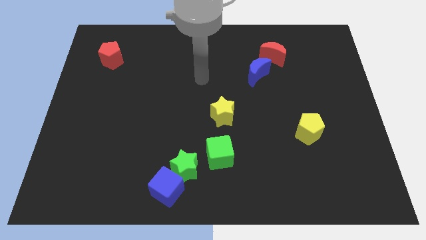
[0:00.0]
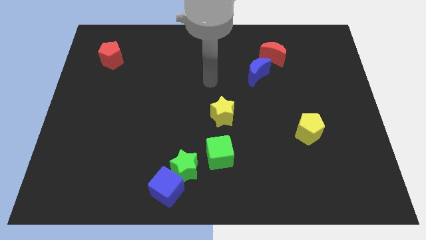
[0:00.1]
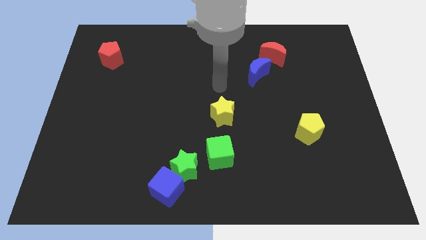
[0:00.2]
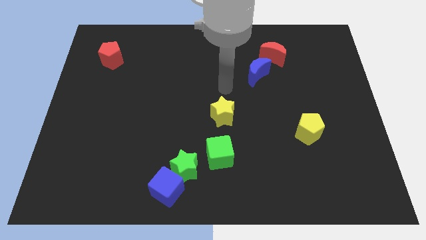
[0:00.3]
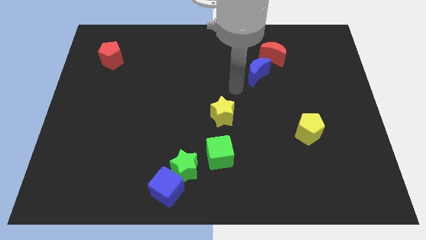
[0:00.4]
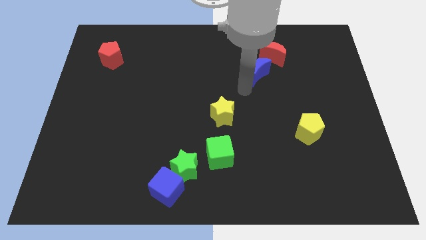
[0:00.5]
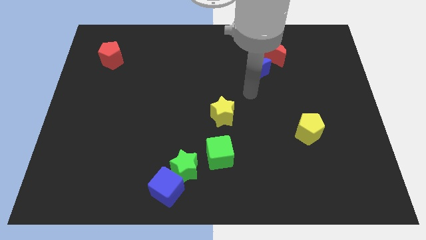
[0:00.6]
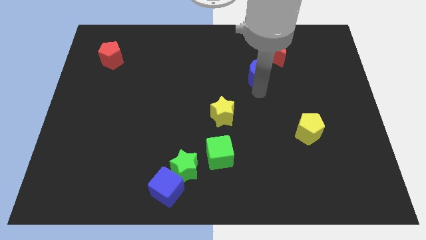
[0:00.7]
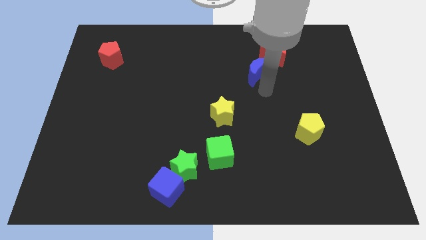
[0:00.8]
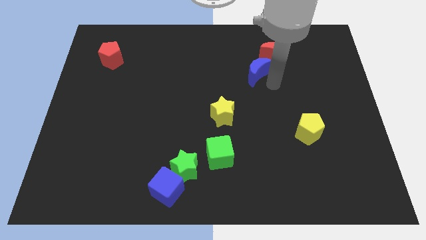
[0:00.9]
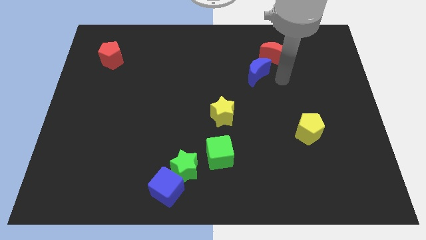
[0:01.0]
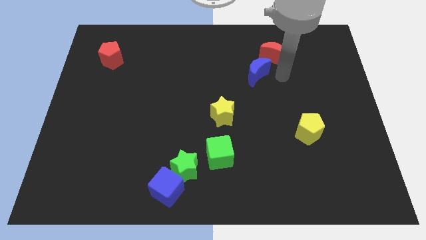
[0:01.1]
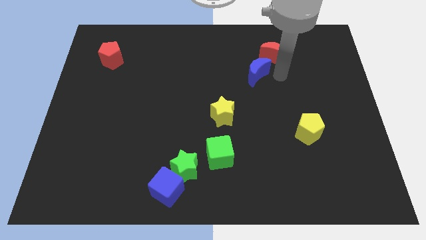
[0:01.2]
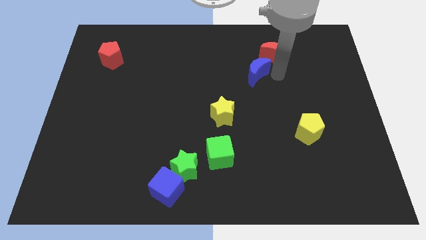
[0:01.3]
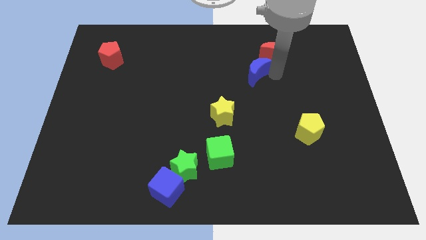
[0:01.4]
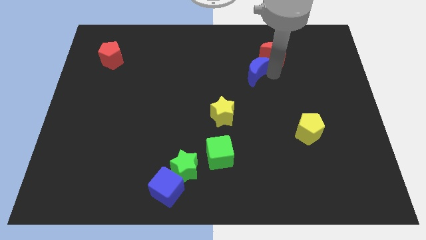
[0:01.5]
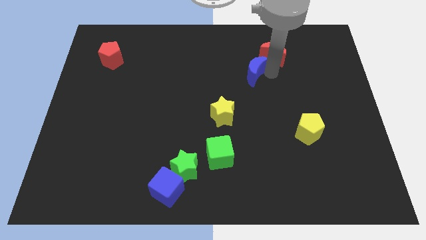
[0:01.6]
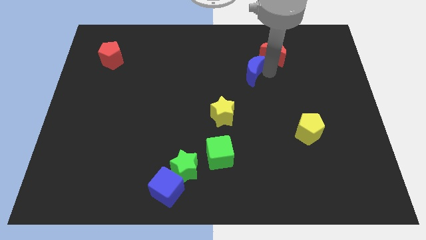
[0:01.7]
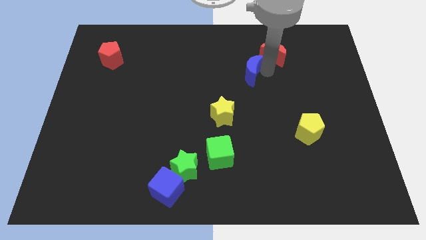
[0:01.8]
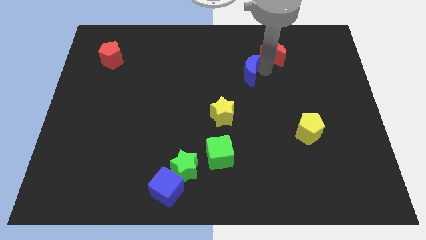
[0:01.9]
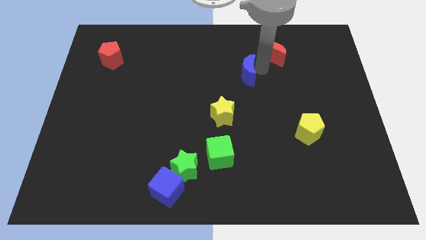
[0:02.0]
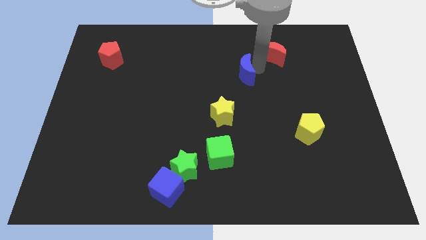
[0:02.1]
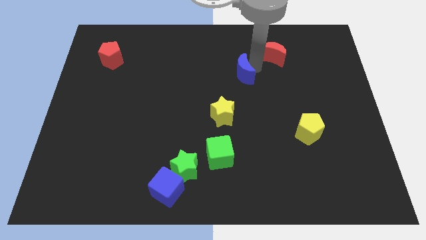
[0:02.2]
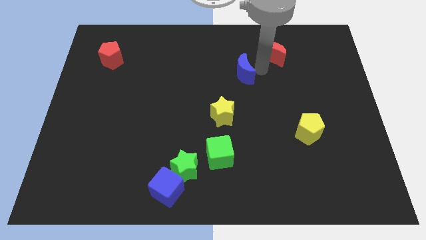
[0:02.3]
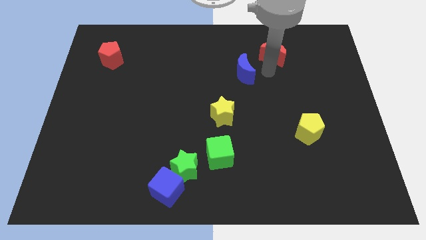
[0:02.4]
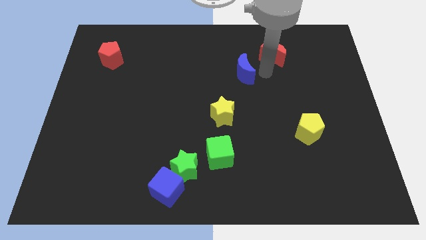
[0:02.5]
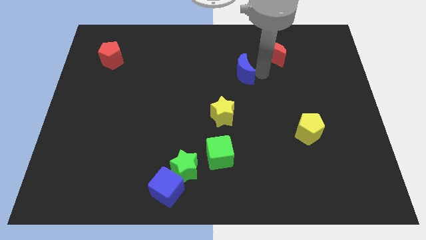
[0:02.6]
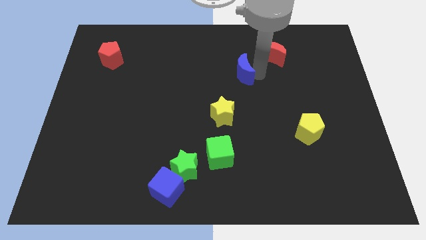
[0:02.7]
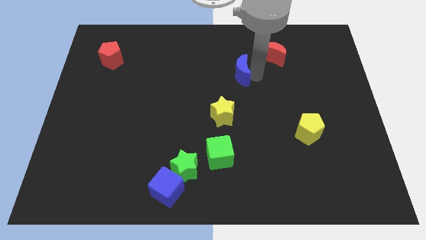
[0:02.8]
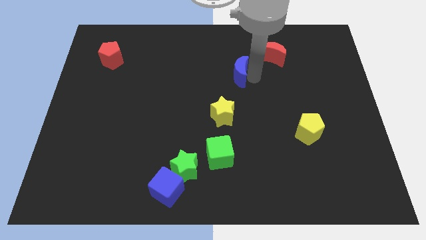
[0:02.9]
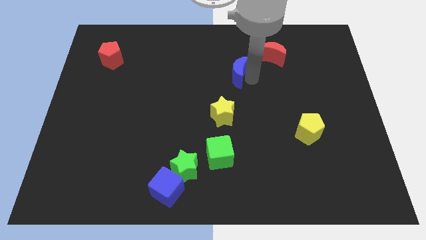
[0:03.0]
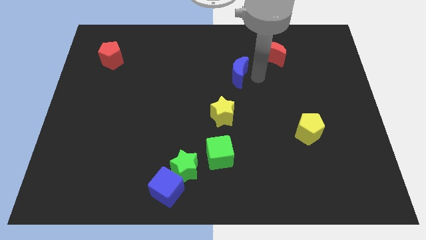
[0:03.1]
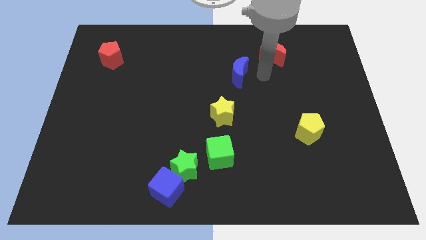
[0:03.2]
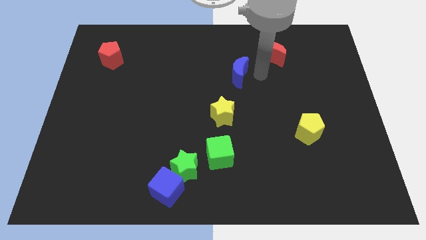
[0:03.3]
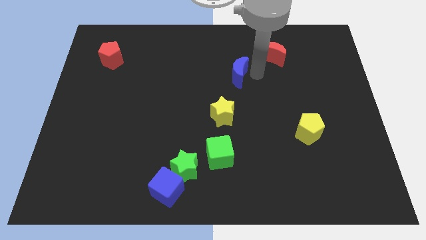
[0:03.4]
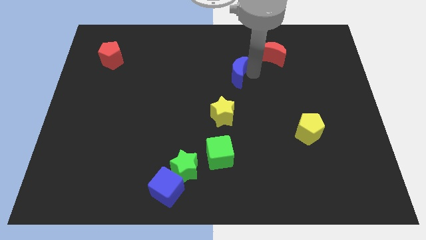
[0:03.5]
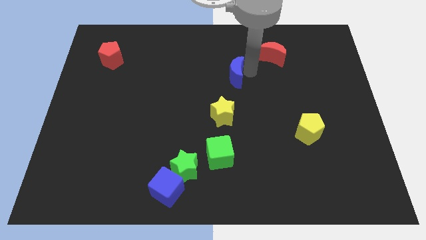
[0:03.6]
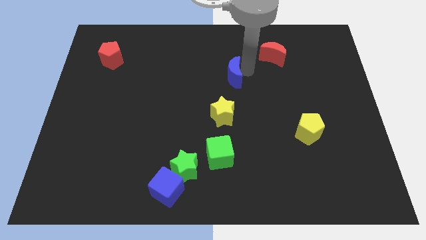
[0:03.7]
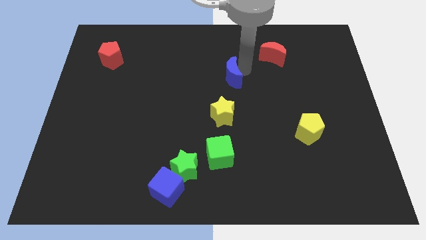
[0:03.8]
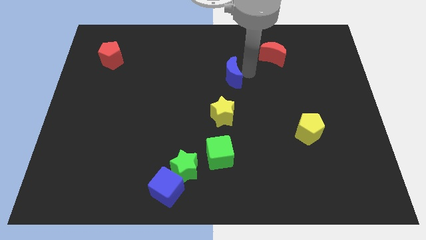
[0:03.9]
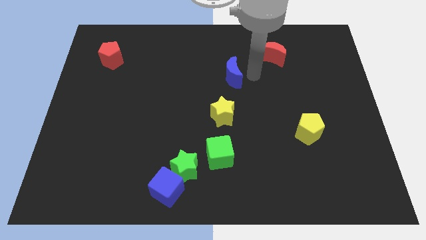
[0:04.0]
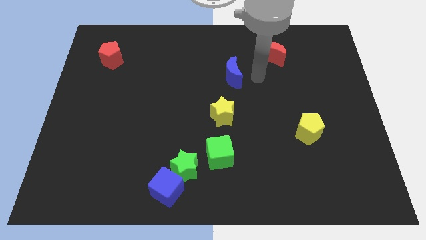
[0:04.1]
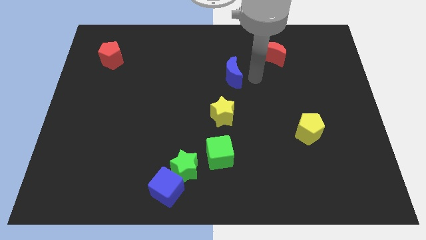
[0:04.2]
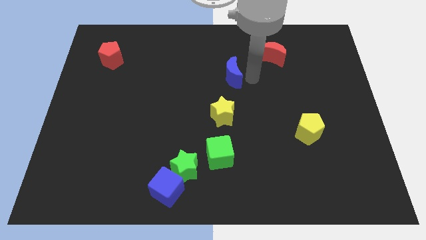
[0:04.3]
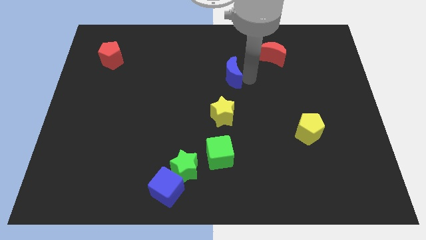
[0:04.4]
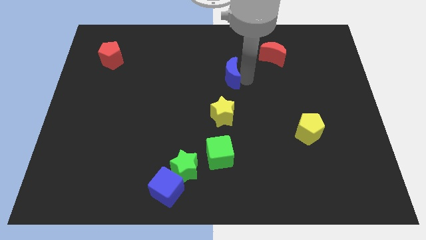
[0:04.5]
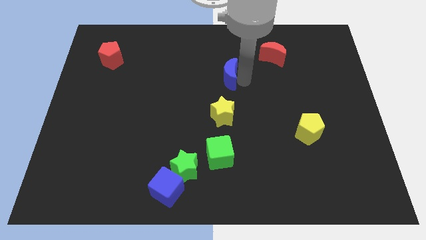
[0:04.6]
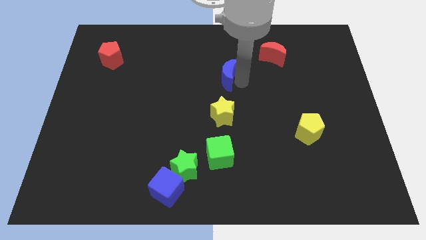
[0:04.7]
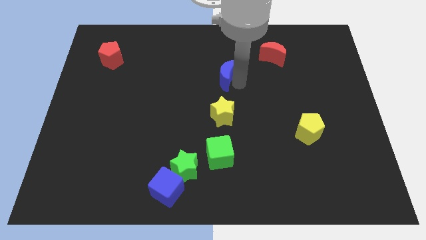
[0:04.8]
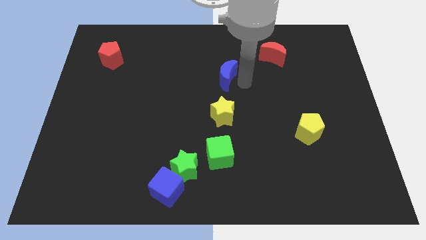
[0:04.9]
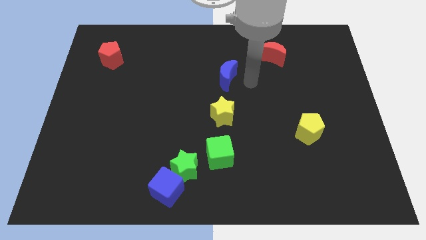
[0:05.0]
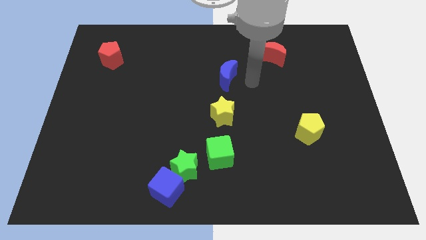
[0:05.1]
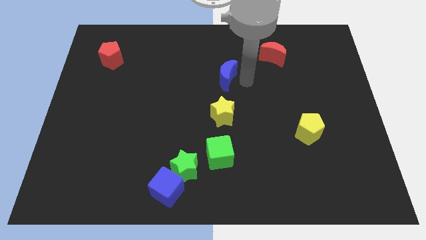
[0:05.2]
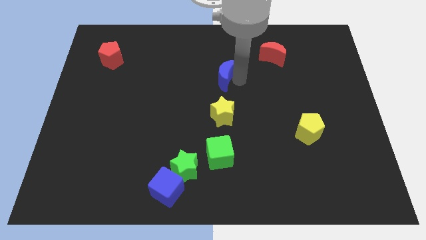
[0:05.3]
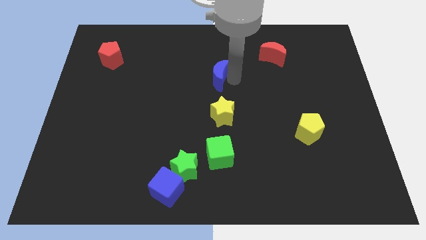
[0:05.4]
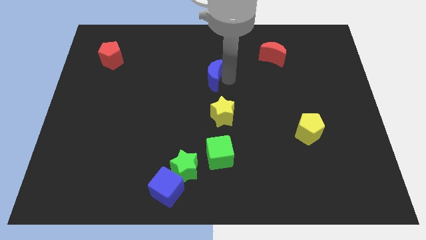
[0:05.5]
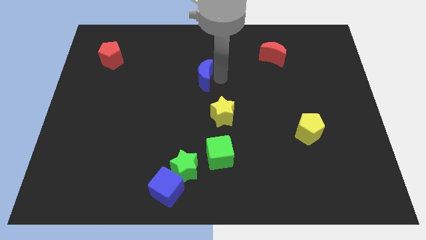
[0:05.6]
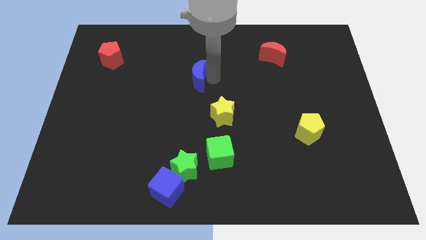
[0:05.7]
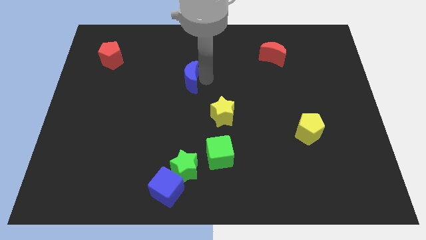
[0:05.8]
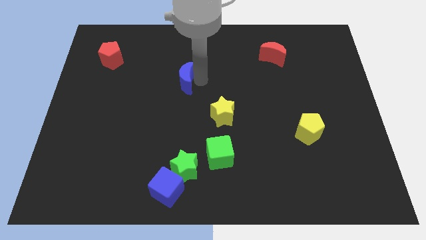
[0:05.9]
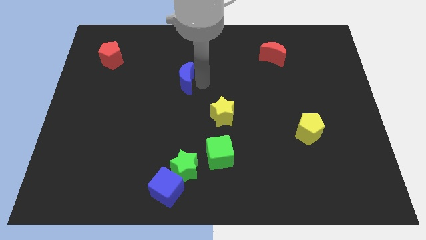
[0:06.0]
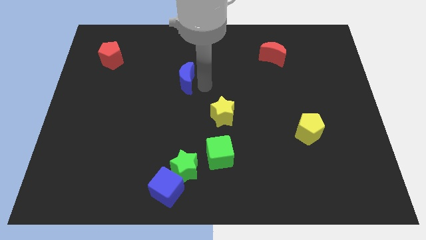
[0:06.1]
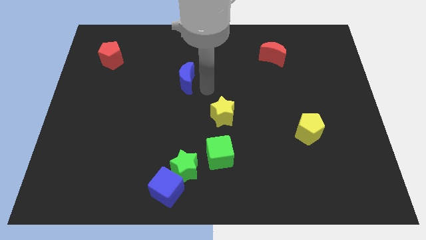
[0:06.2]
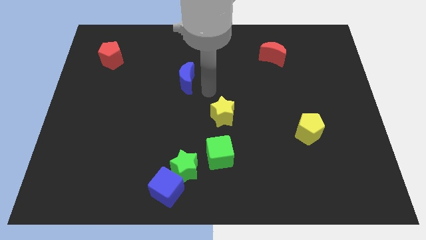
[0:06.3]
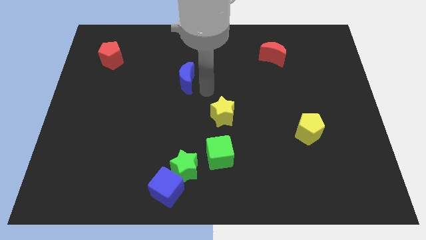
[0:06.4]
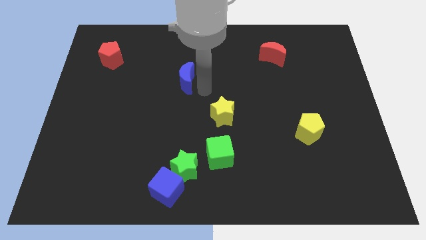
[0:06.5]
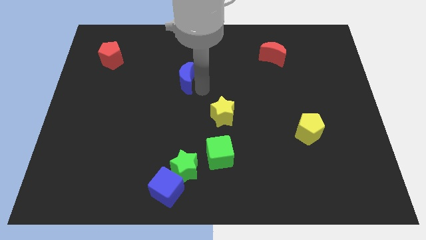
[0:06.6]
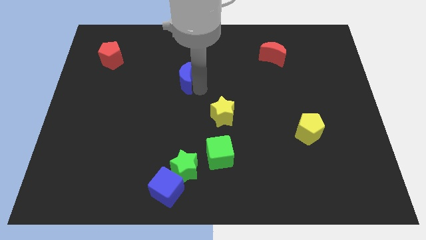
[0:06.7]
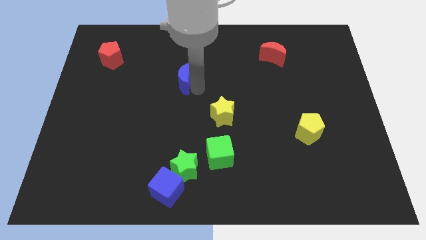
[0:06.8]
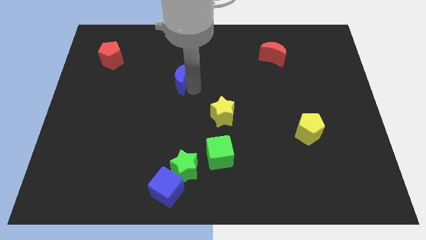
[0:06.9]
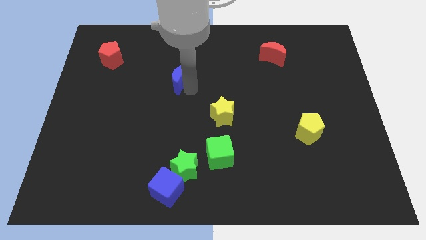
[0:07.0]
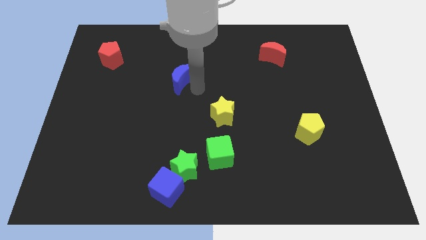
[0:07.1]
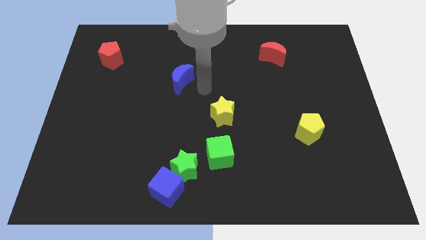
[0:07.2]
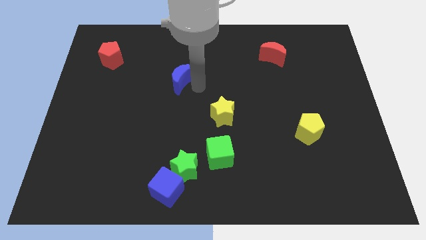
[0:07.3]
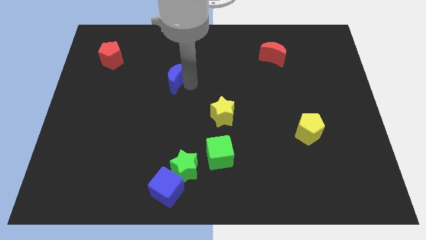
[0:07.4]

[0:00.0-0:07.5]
move the blue moon left

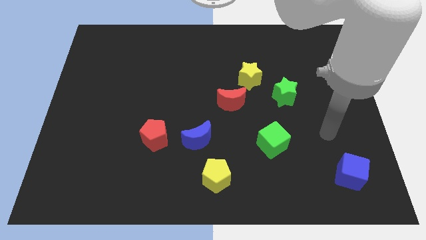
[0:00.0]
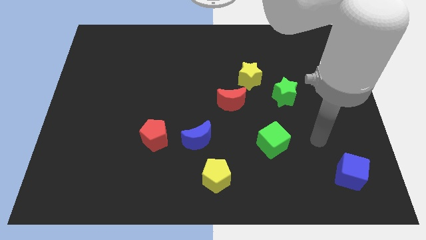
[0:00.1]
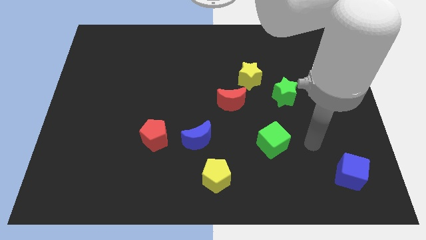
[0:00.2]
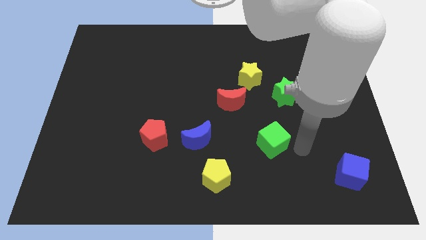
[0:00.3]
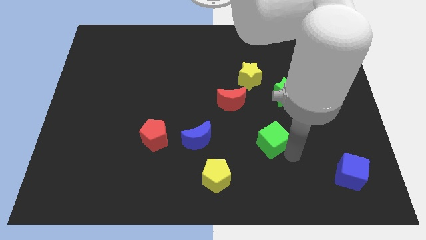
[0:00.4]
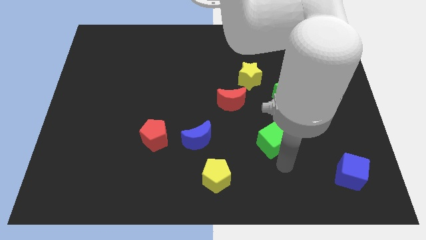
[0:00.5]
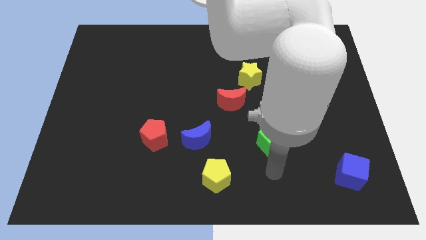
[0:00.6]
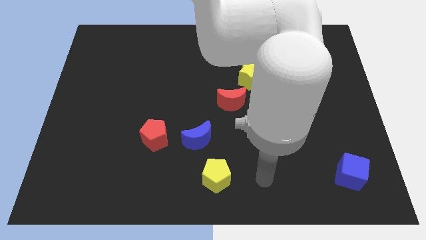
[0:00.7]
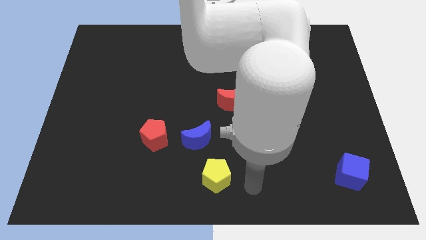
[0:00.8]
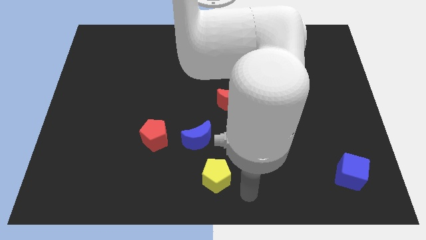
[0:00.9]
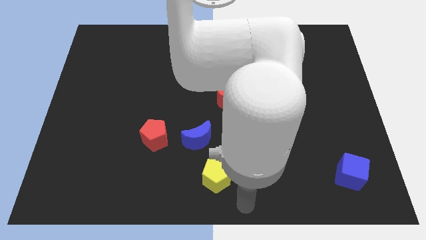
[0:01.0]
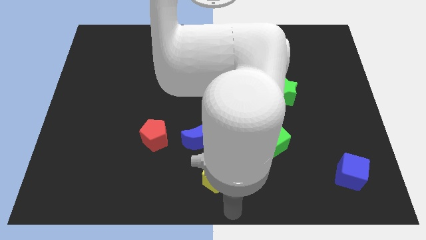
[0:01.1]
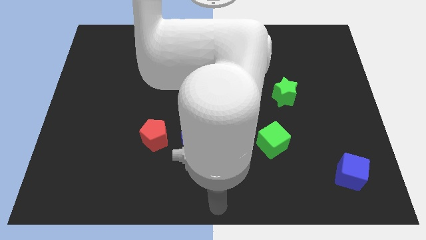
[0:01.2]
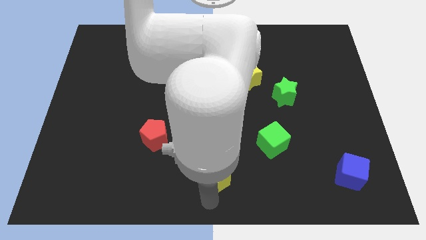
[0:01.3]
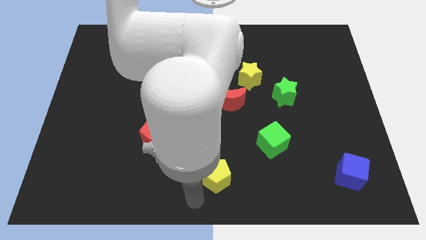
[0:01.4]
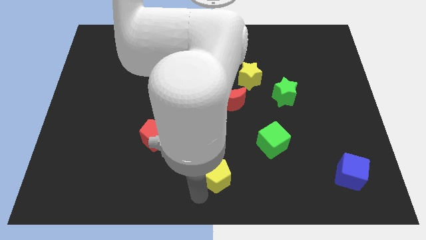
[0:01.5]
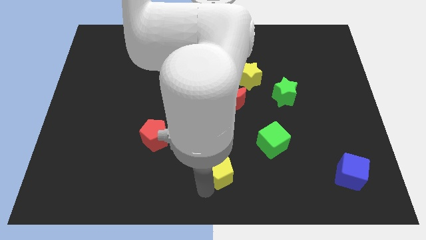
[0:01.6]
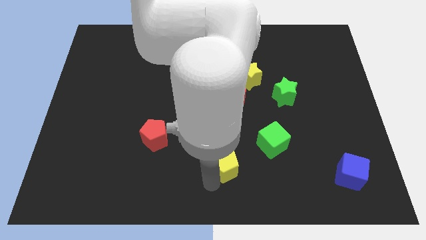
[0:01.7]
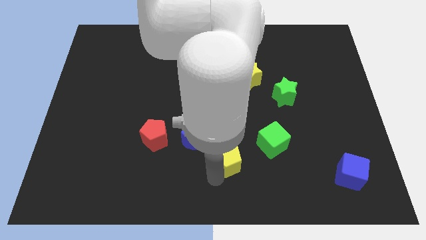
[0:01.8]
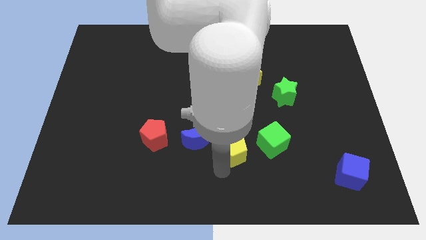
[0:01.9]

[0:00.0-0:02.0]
move the yellow pentagon upwards and then to the right a little
